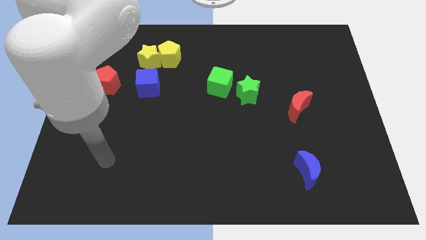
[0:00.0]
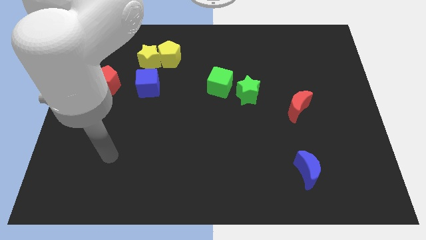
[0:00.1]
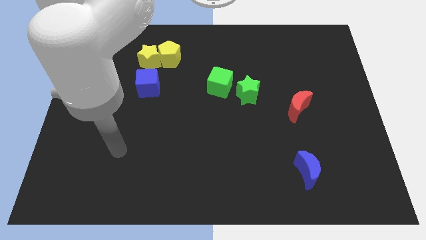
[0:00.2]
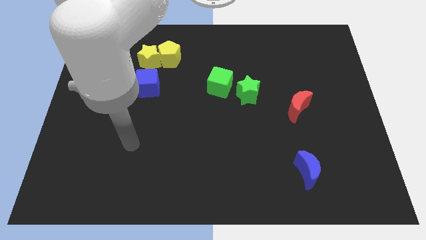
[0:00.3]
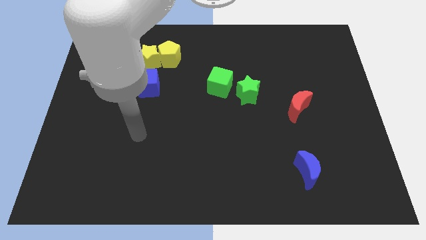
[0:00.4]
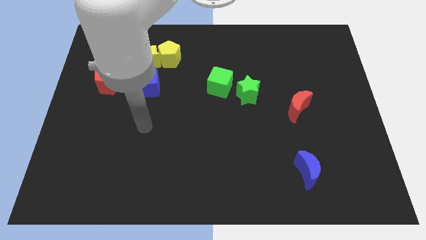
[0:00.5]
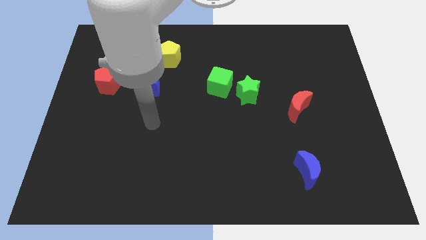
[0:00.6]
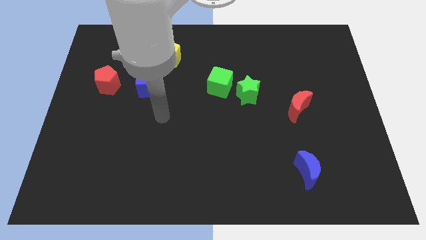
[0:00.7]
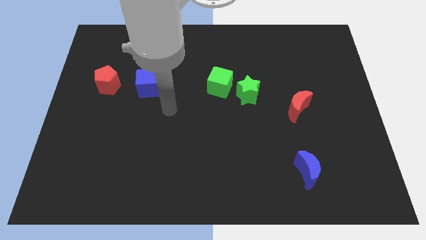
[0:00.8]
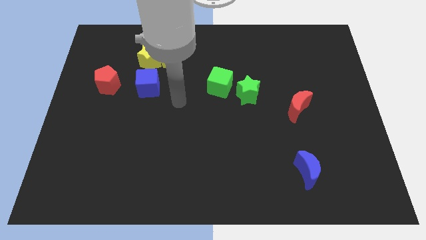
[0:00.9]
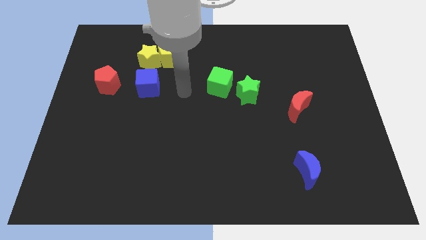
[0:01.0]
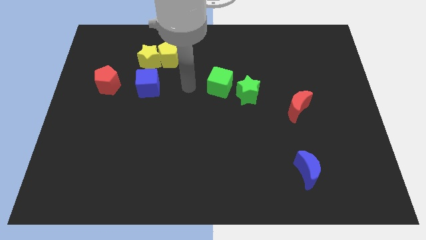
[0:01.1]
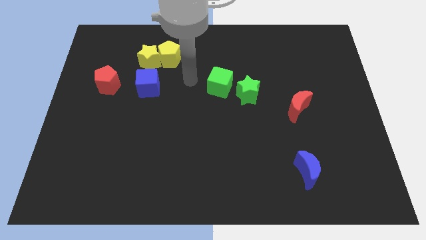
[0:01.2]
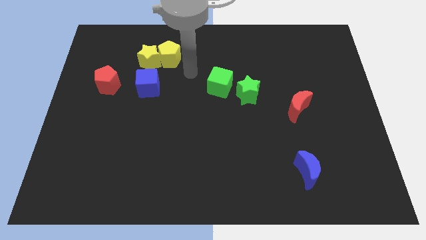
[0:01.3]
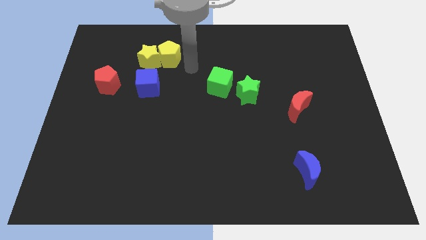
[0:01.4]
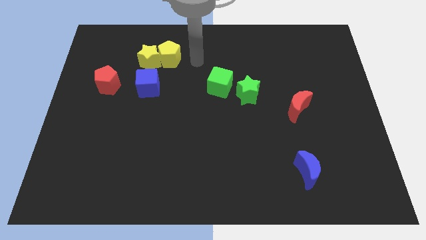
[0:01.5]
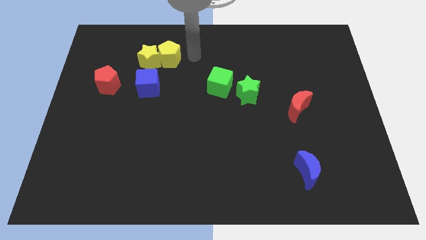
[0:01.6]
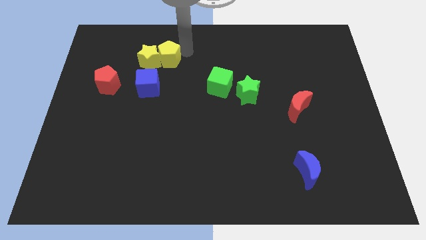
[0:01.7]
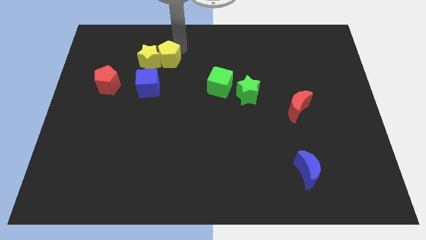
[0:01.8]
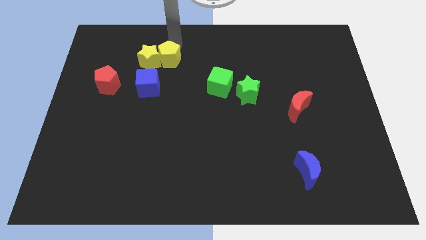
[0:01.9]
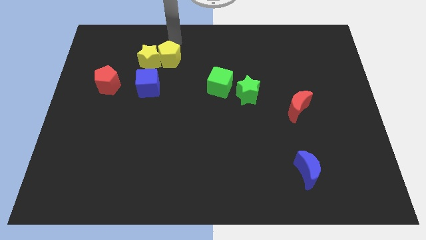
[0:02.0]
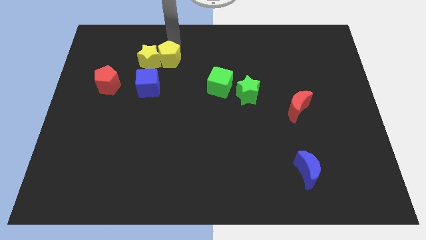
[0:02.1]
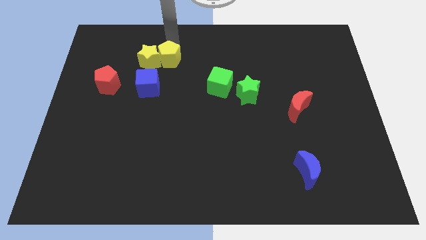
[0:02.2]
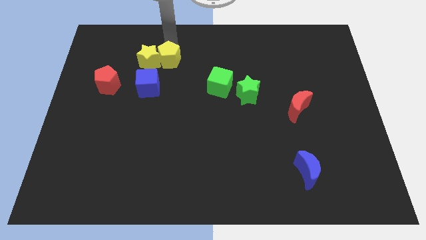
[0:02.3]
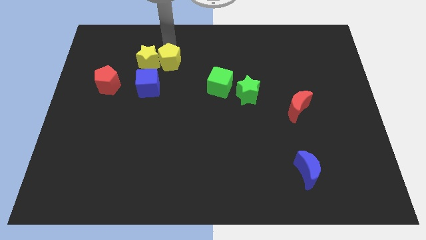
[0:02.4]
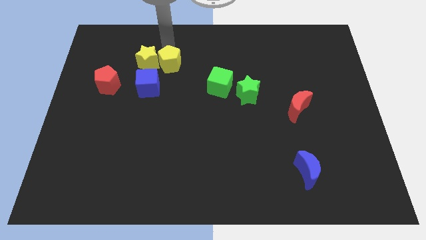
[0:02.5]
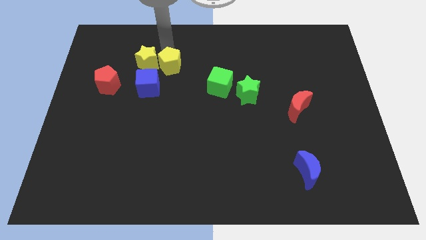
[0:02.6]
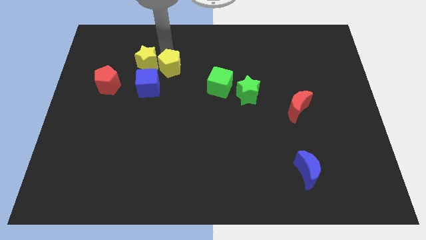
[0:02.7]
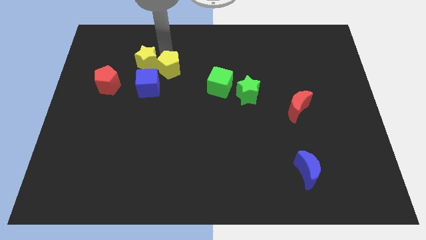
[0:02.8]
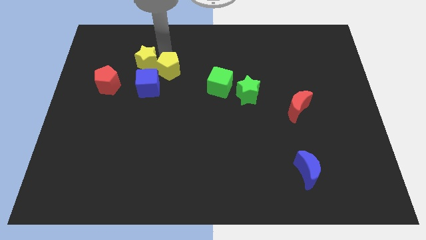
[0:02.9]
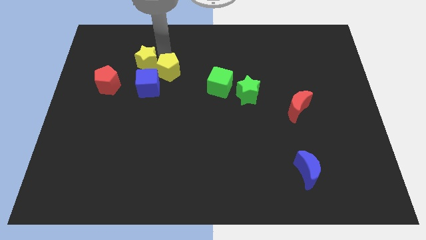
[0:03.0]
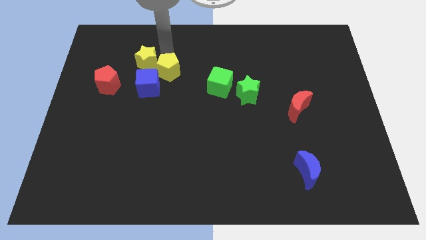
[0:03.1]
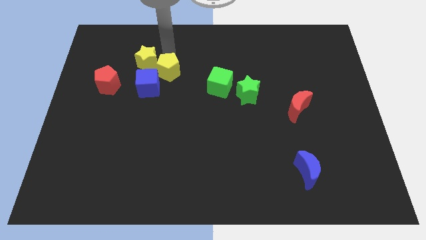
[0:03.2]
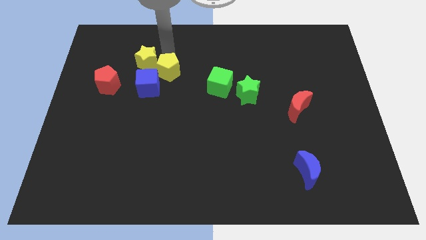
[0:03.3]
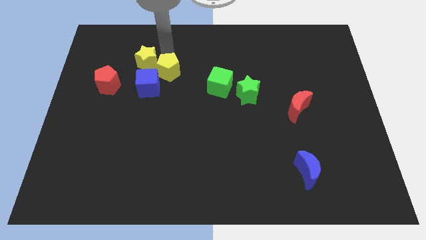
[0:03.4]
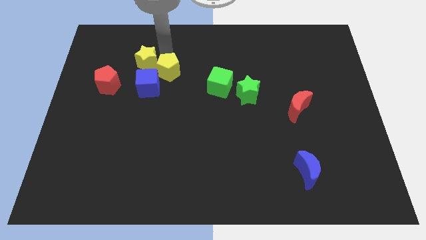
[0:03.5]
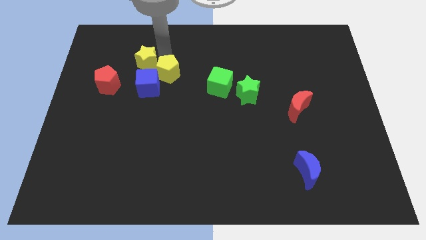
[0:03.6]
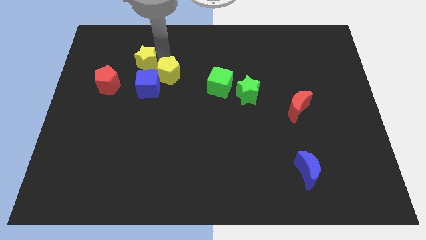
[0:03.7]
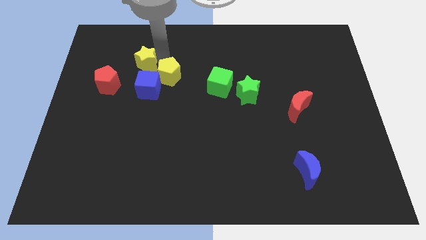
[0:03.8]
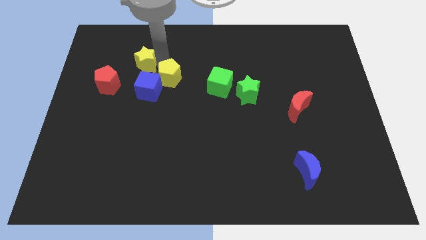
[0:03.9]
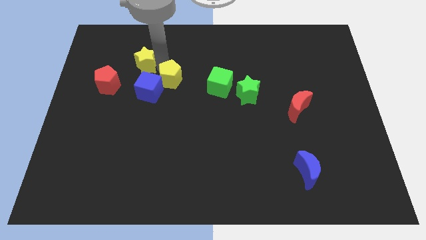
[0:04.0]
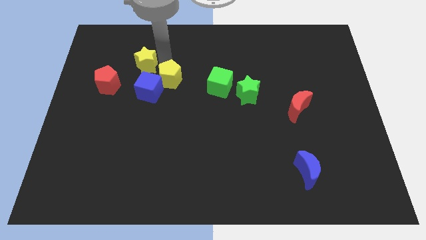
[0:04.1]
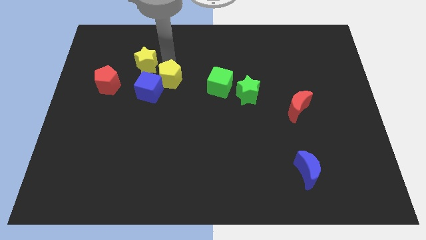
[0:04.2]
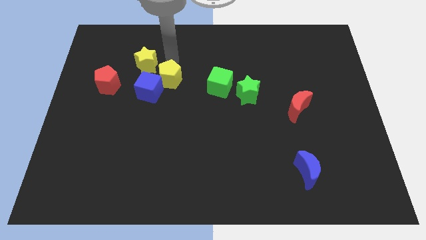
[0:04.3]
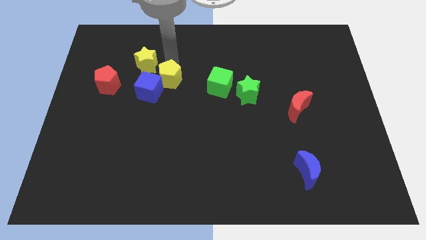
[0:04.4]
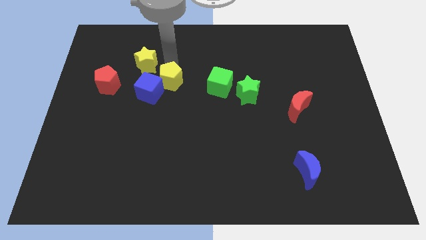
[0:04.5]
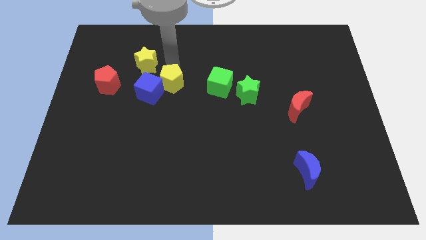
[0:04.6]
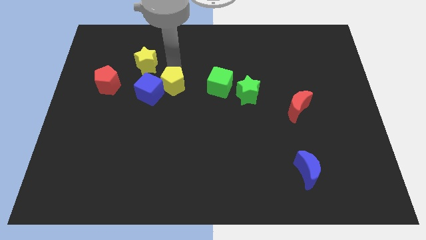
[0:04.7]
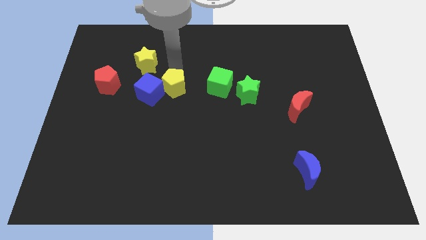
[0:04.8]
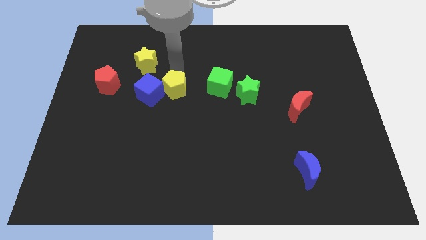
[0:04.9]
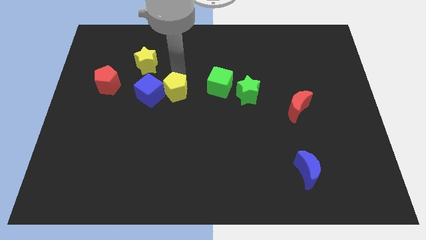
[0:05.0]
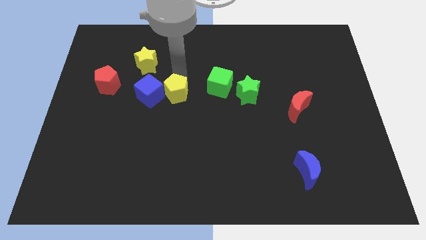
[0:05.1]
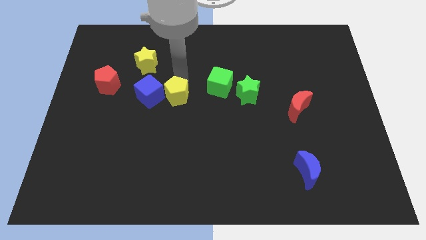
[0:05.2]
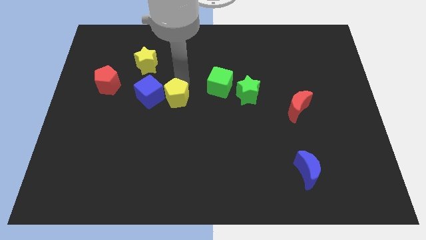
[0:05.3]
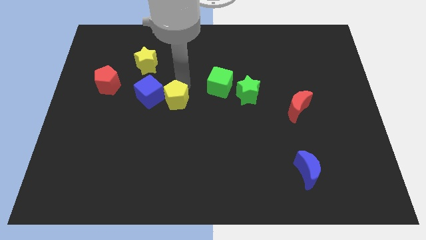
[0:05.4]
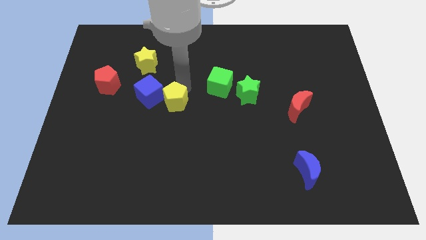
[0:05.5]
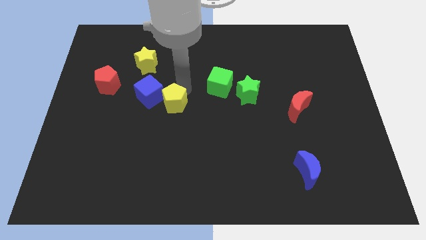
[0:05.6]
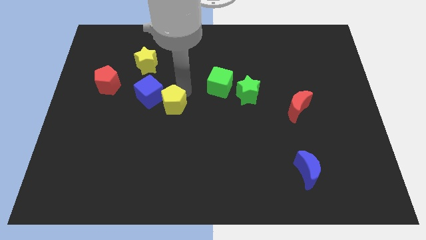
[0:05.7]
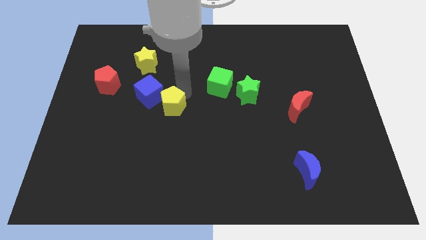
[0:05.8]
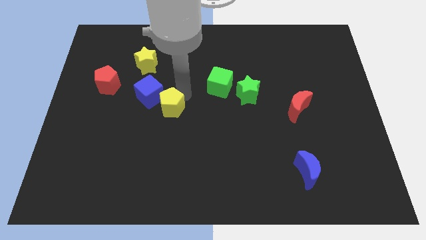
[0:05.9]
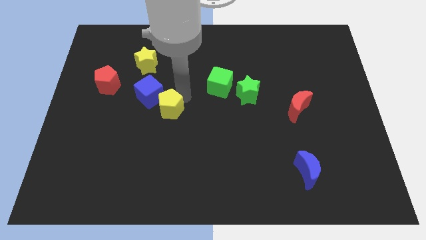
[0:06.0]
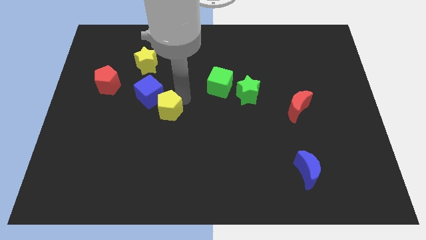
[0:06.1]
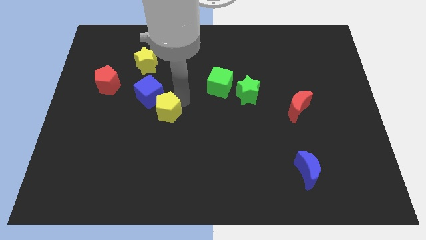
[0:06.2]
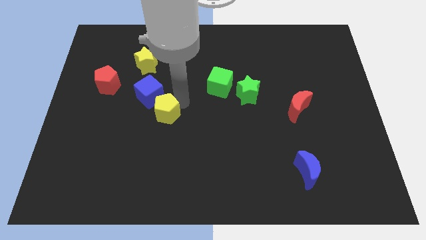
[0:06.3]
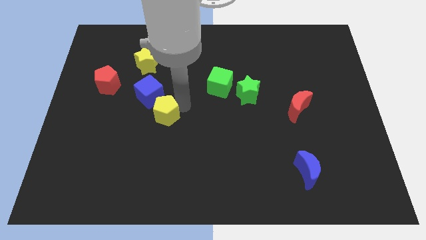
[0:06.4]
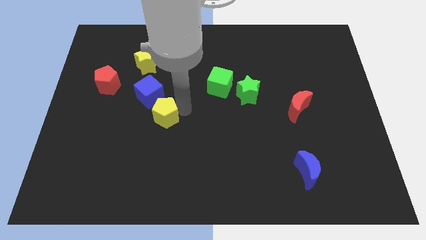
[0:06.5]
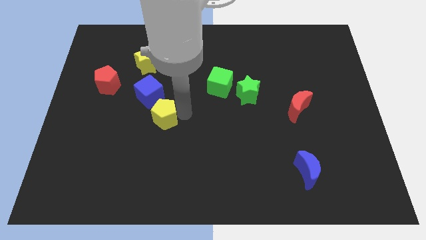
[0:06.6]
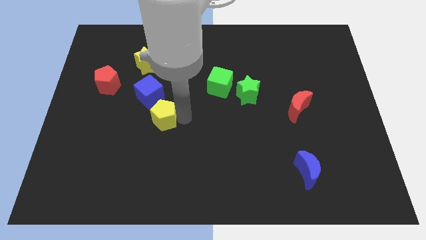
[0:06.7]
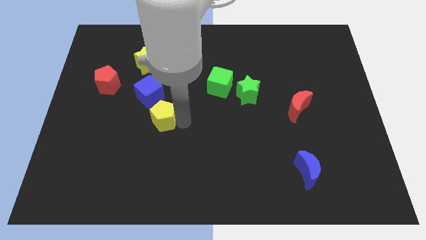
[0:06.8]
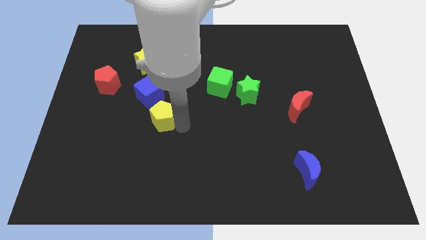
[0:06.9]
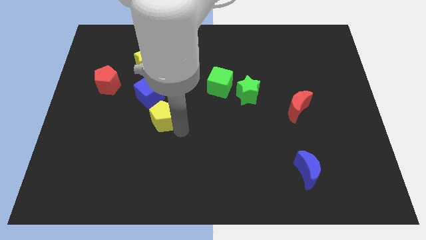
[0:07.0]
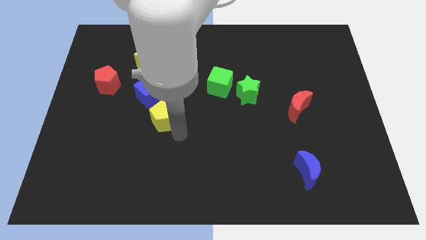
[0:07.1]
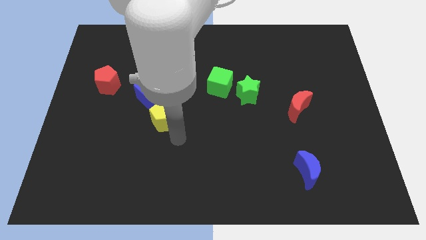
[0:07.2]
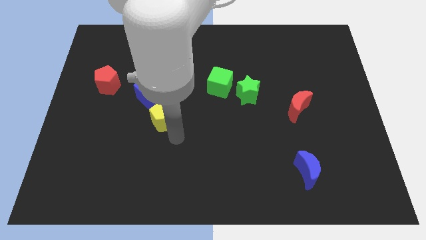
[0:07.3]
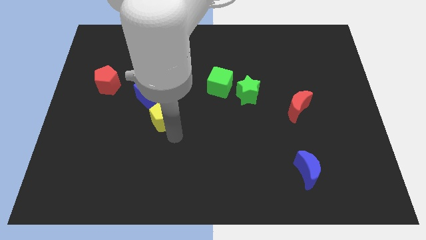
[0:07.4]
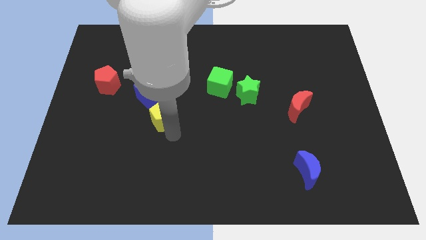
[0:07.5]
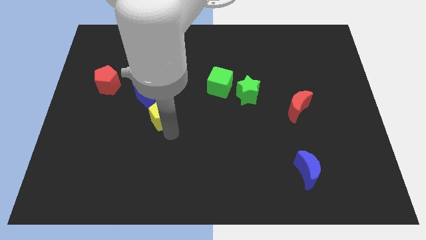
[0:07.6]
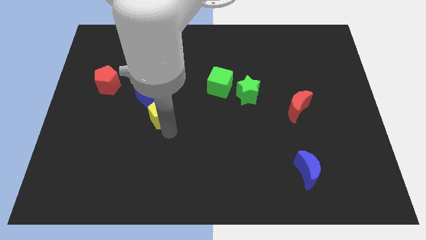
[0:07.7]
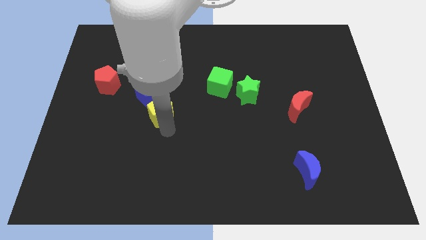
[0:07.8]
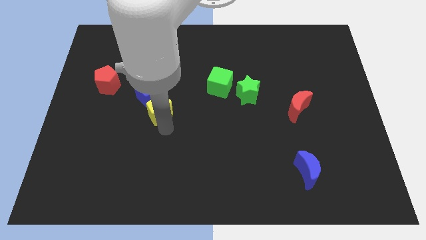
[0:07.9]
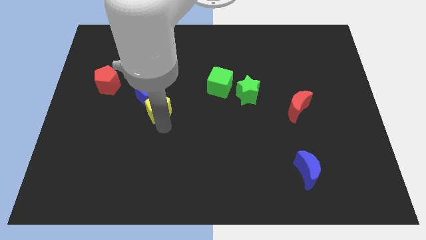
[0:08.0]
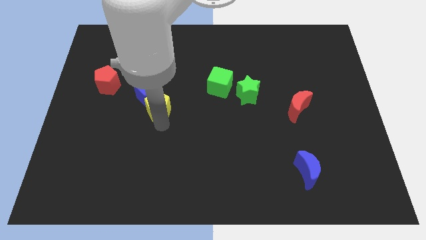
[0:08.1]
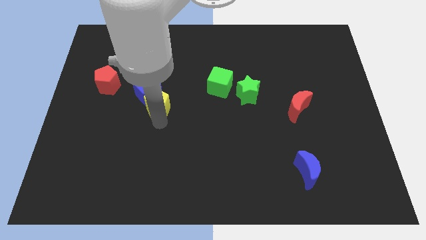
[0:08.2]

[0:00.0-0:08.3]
push the yellow pentagon downwards and left diagonally slightly
